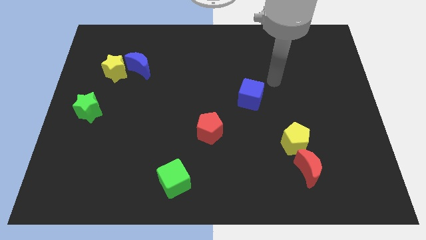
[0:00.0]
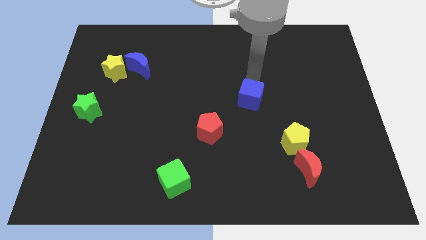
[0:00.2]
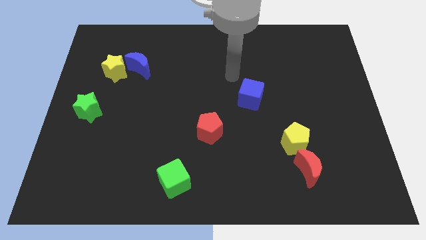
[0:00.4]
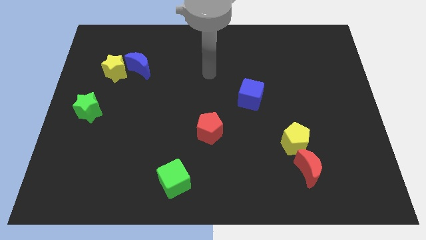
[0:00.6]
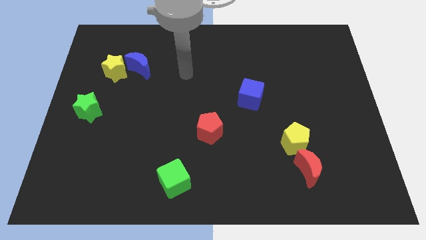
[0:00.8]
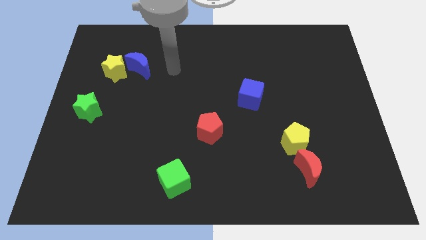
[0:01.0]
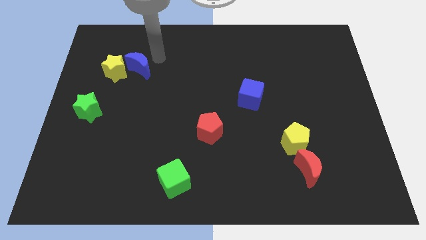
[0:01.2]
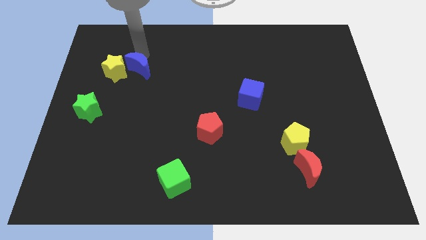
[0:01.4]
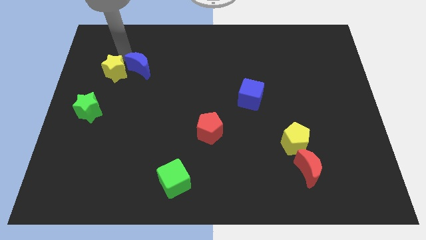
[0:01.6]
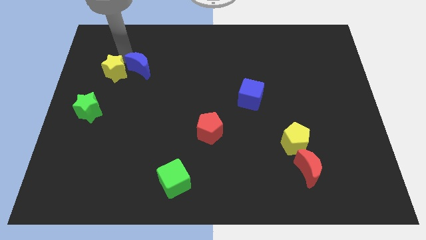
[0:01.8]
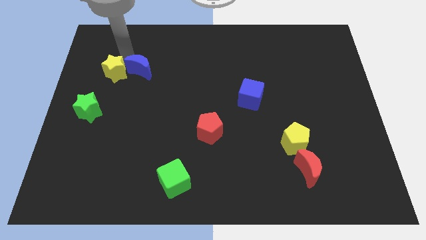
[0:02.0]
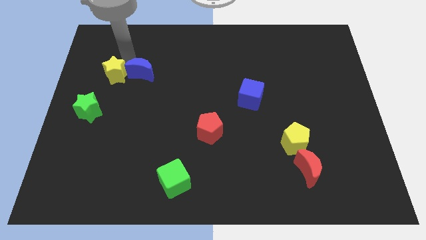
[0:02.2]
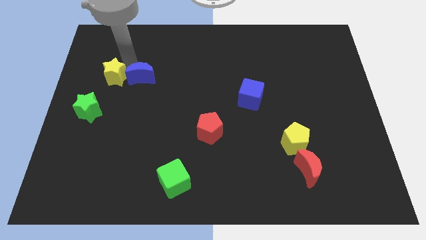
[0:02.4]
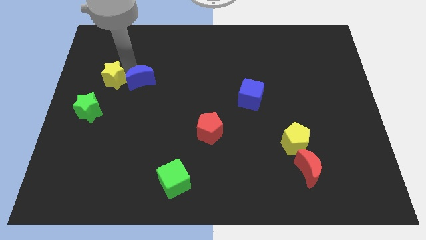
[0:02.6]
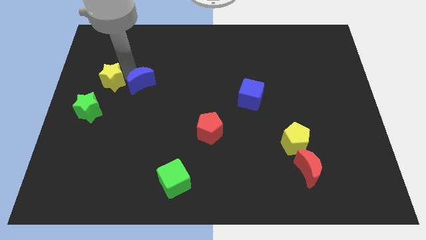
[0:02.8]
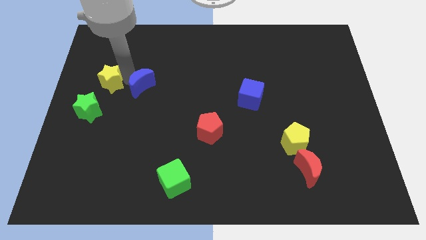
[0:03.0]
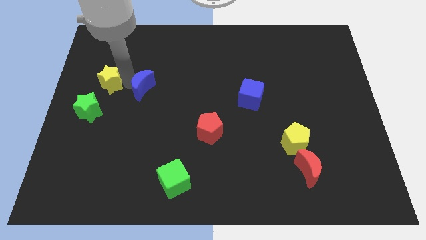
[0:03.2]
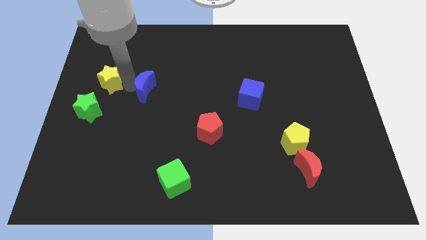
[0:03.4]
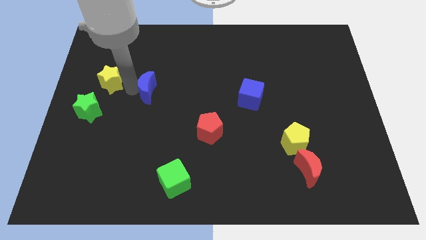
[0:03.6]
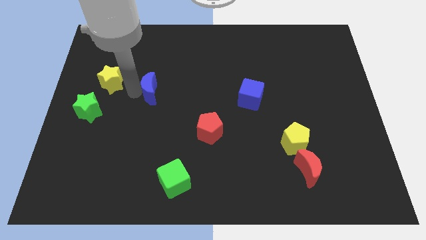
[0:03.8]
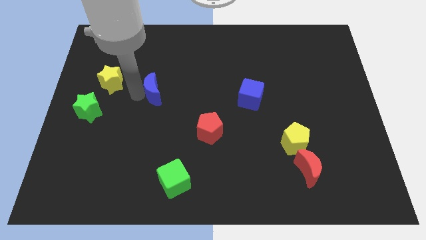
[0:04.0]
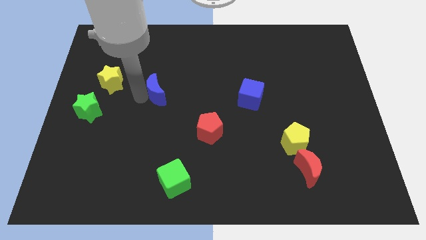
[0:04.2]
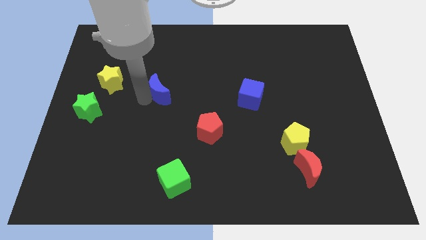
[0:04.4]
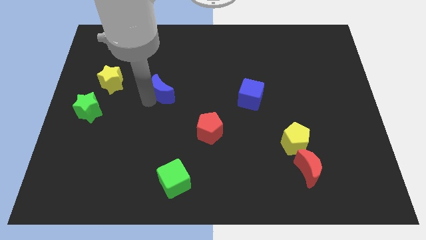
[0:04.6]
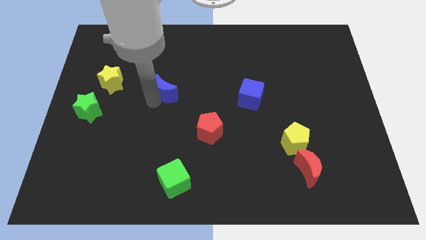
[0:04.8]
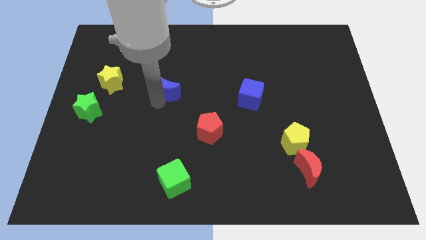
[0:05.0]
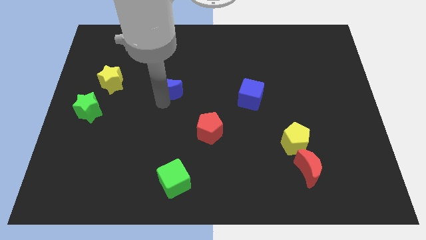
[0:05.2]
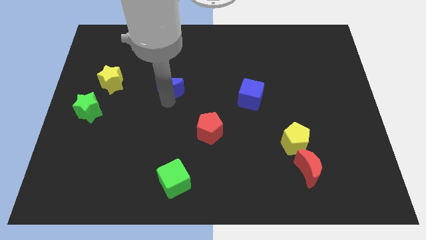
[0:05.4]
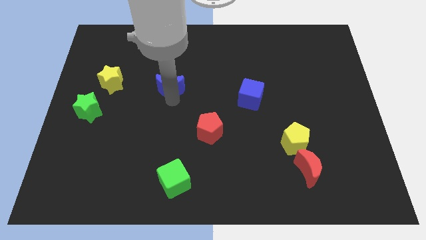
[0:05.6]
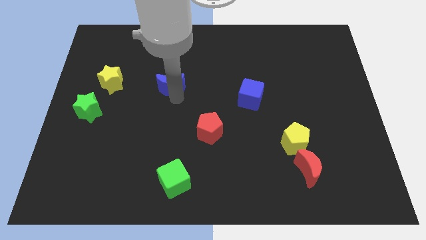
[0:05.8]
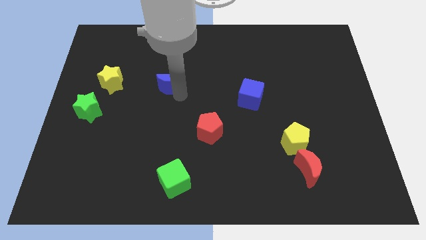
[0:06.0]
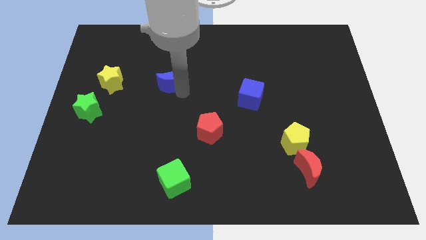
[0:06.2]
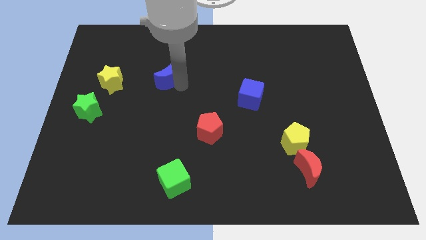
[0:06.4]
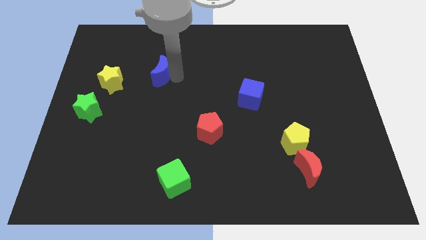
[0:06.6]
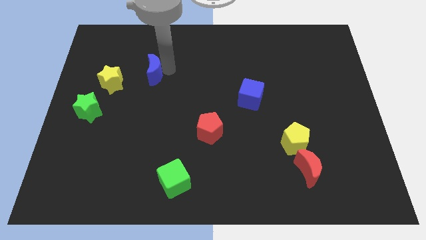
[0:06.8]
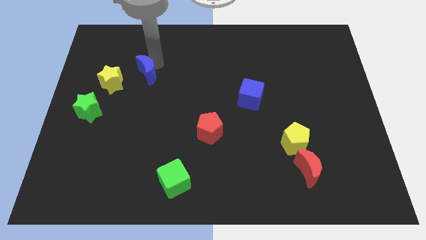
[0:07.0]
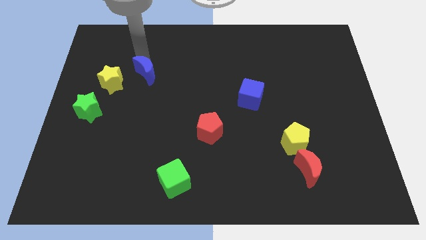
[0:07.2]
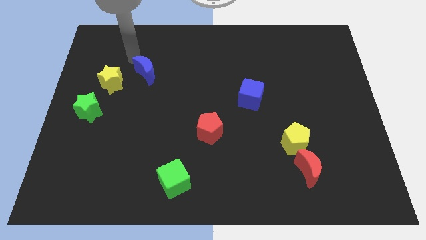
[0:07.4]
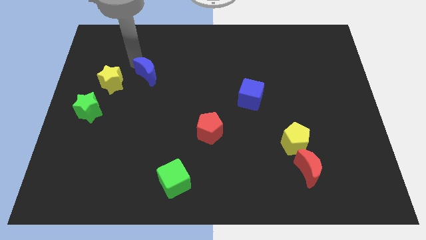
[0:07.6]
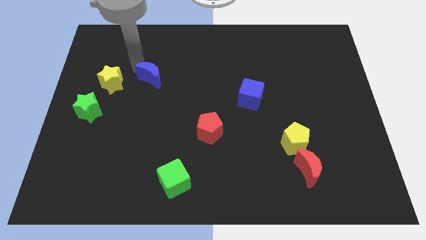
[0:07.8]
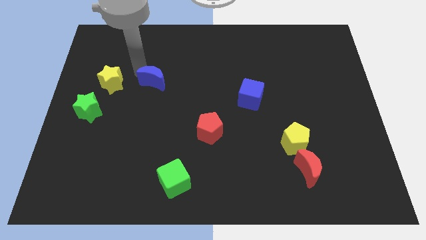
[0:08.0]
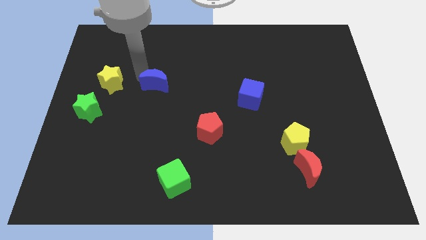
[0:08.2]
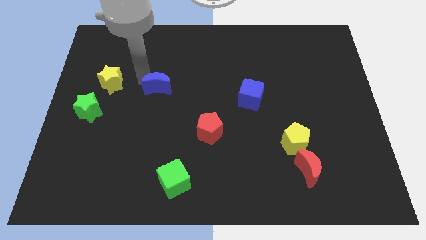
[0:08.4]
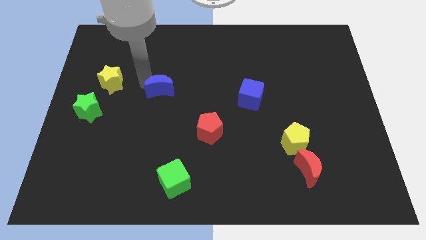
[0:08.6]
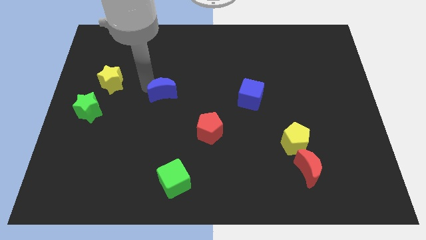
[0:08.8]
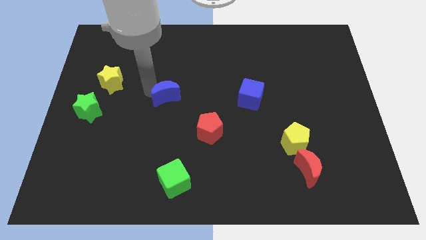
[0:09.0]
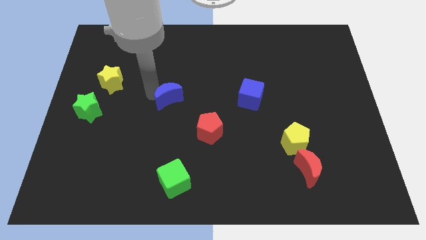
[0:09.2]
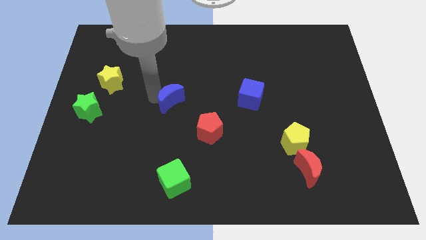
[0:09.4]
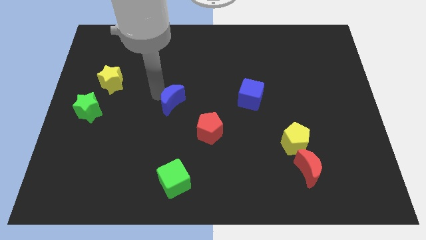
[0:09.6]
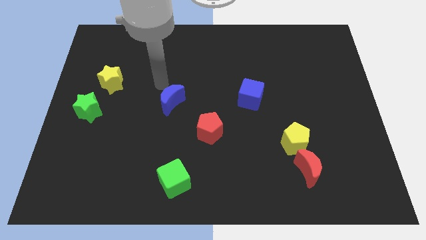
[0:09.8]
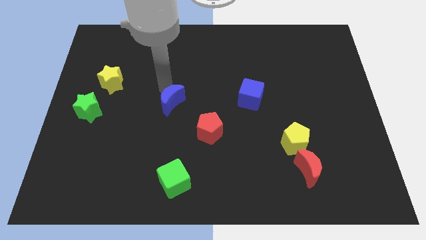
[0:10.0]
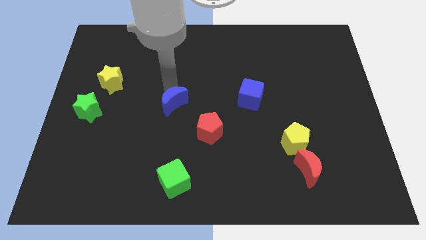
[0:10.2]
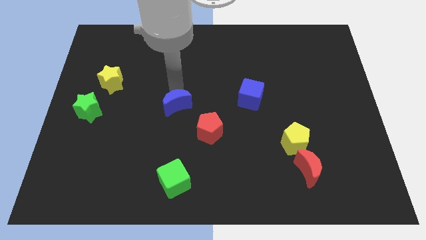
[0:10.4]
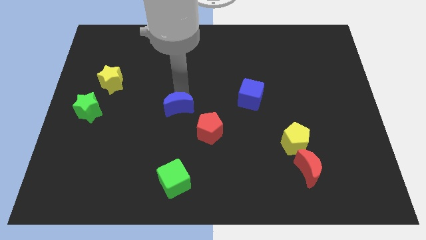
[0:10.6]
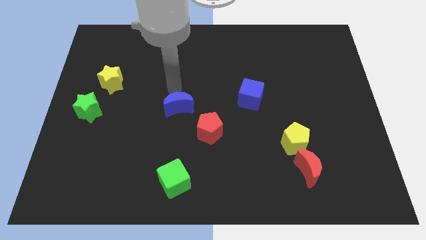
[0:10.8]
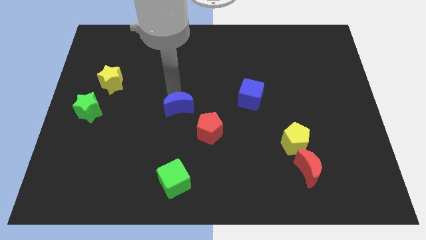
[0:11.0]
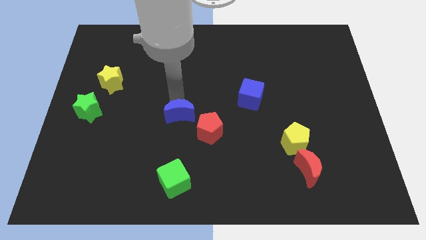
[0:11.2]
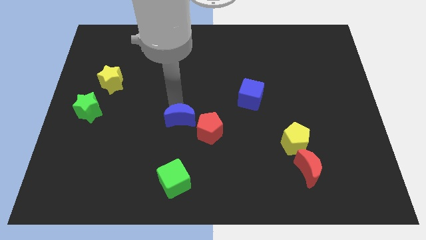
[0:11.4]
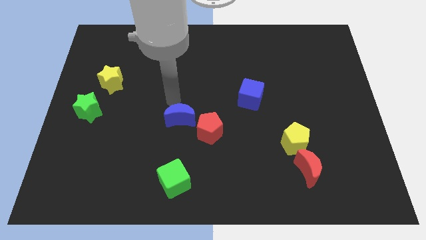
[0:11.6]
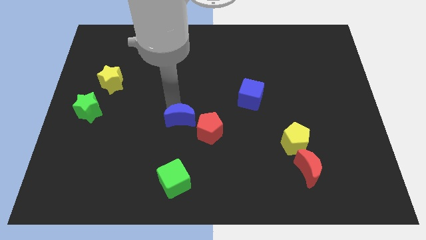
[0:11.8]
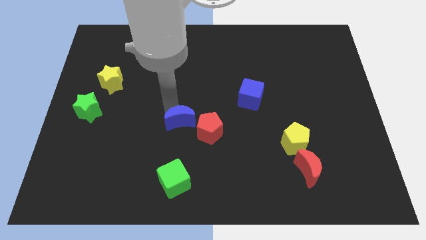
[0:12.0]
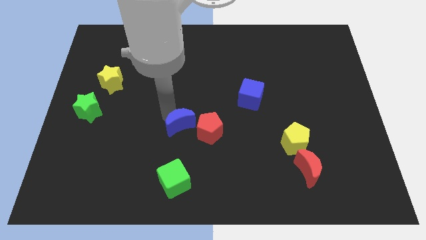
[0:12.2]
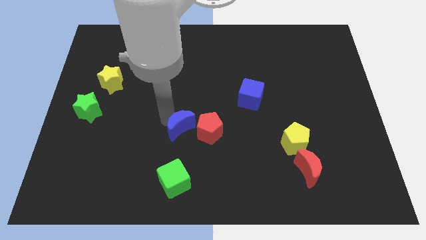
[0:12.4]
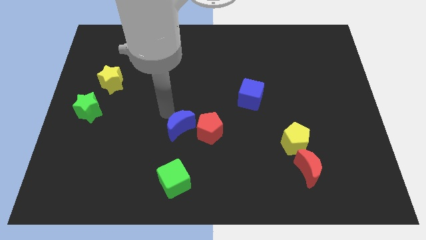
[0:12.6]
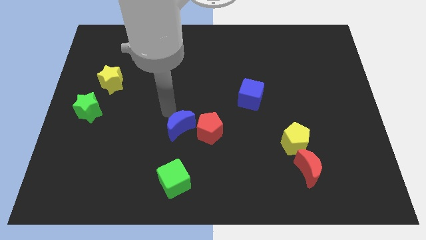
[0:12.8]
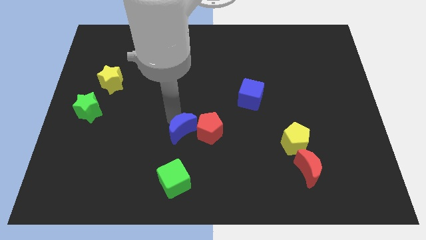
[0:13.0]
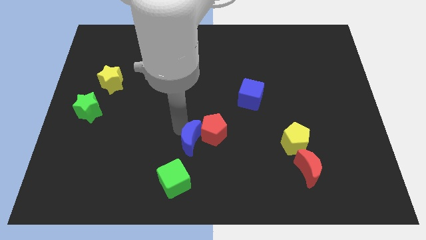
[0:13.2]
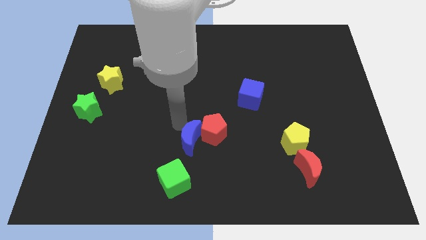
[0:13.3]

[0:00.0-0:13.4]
push the blue moon to the top right of the green cube
